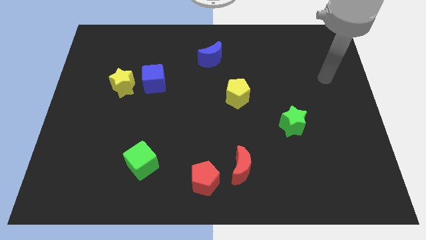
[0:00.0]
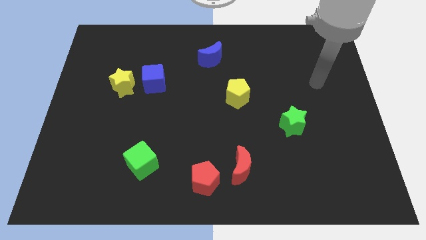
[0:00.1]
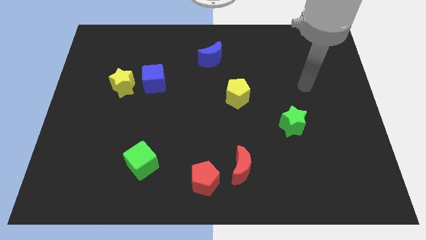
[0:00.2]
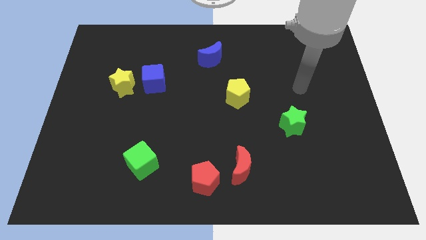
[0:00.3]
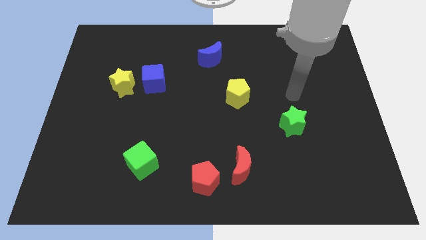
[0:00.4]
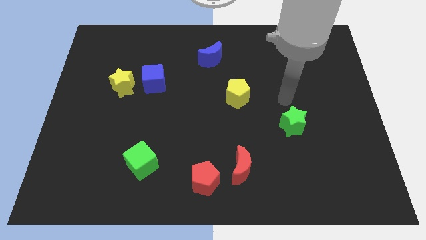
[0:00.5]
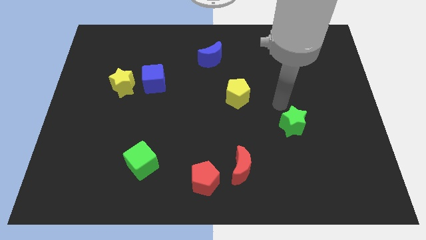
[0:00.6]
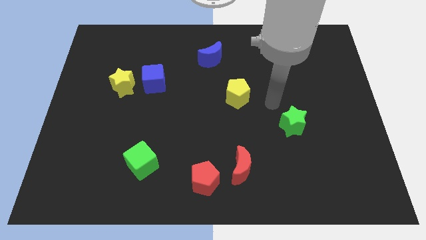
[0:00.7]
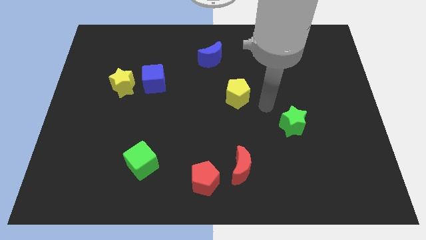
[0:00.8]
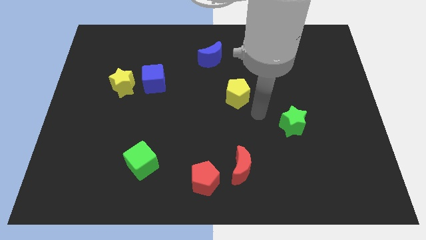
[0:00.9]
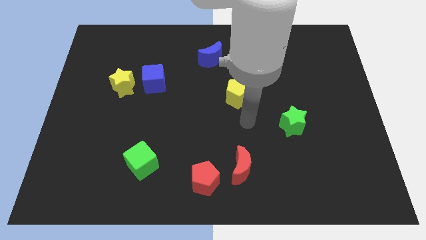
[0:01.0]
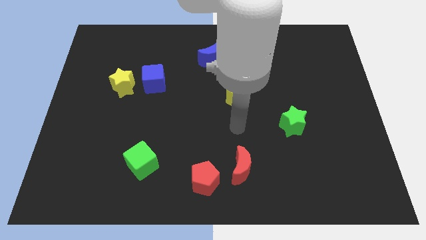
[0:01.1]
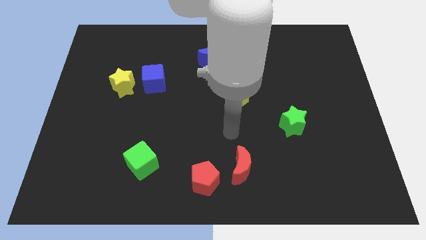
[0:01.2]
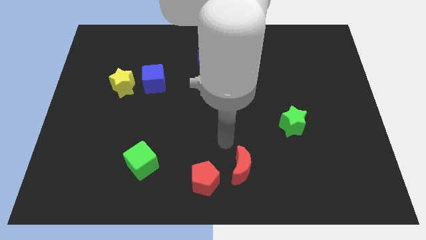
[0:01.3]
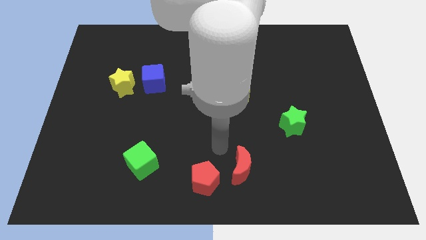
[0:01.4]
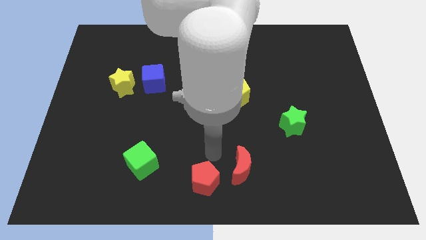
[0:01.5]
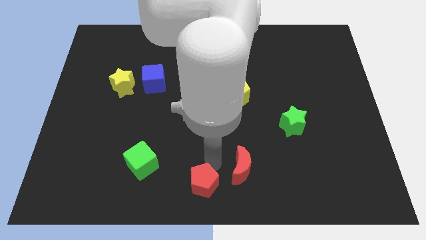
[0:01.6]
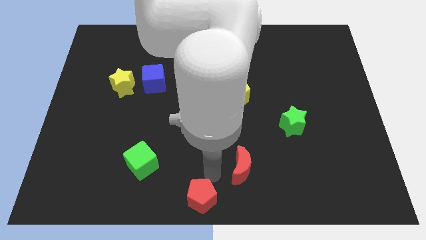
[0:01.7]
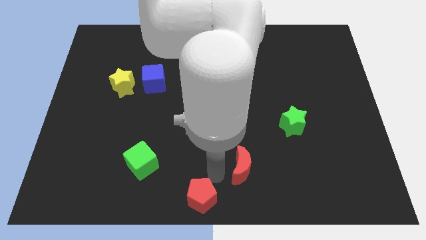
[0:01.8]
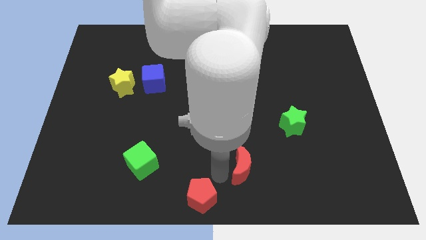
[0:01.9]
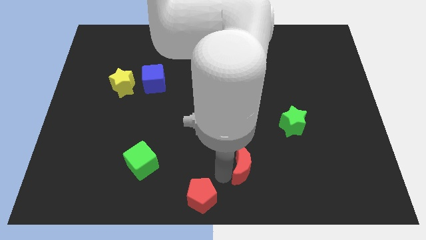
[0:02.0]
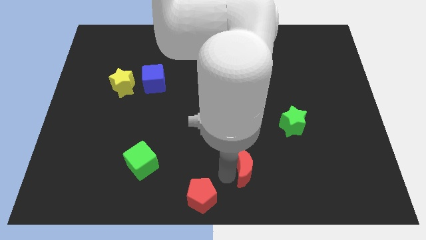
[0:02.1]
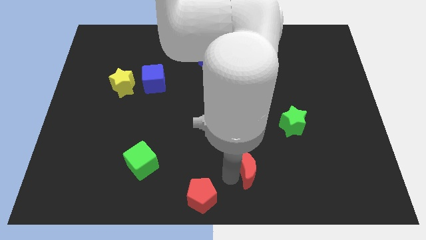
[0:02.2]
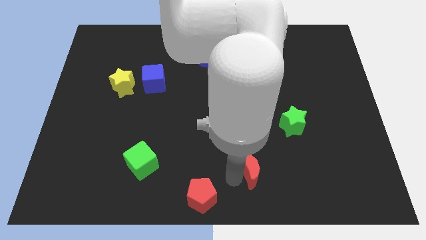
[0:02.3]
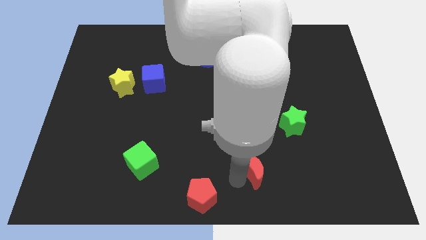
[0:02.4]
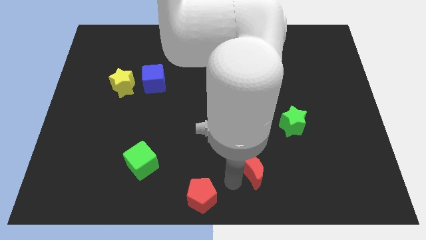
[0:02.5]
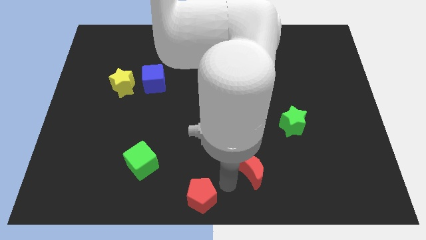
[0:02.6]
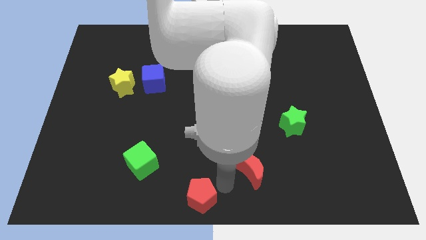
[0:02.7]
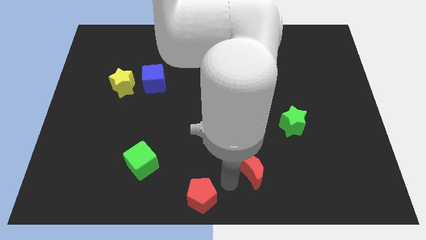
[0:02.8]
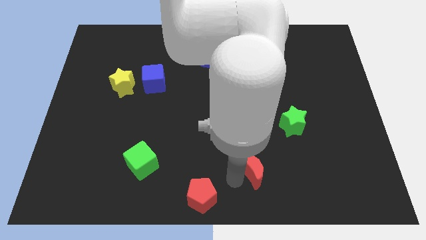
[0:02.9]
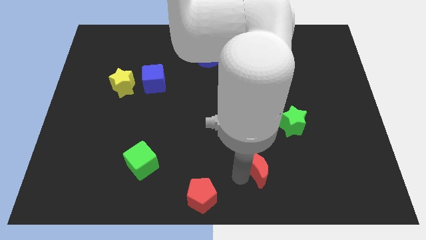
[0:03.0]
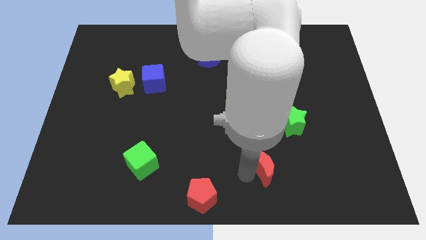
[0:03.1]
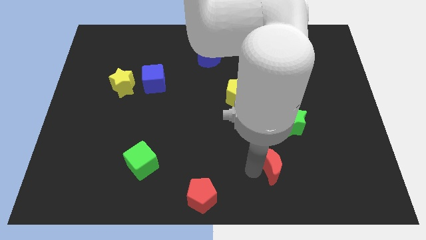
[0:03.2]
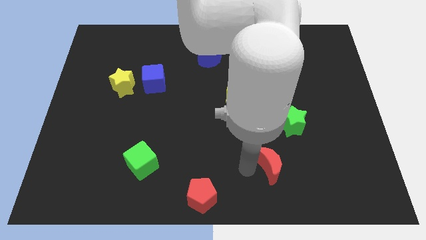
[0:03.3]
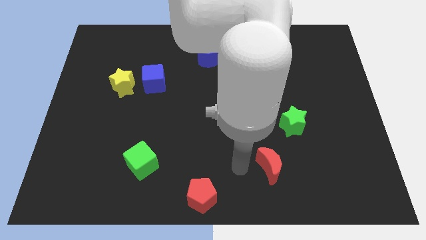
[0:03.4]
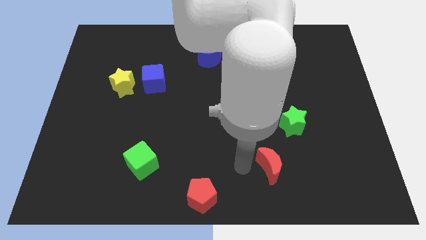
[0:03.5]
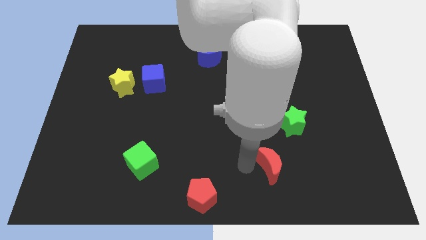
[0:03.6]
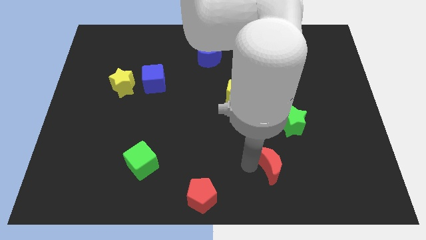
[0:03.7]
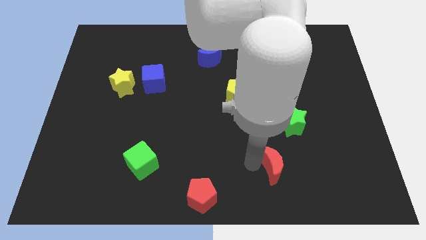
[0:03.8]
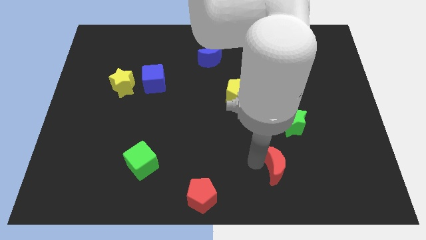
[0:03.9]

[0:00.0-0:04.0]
slightly move the red moon right

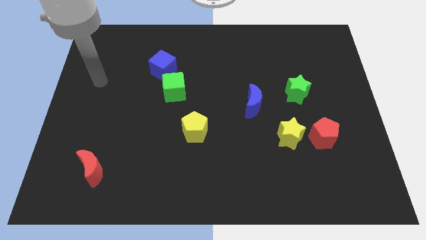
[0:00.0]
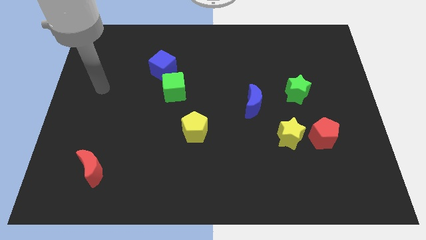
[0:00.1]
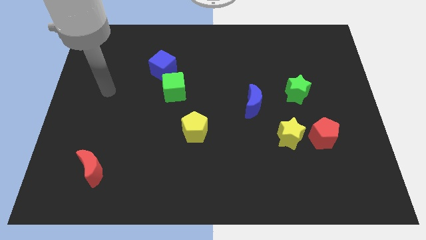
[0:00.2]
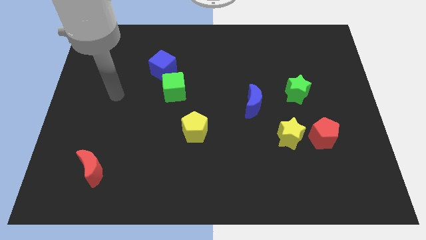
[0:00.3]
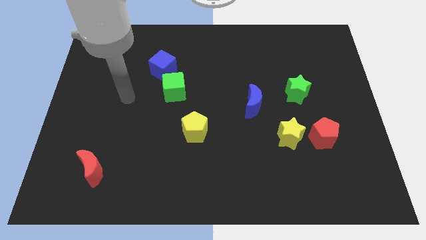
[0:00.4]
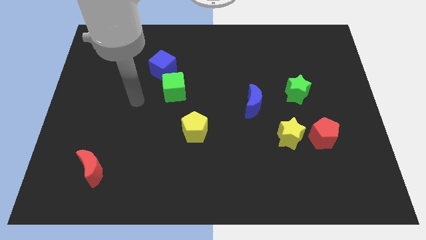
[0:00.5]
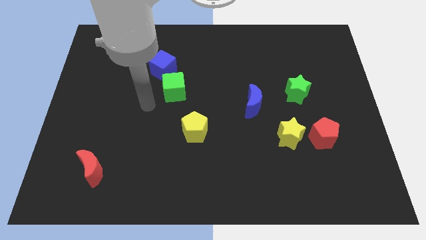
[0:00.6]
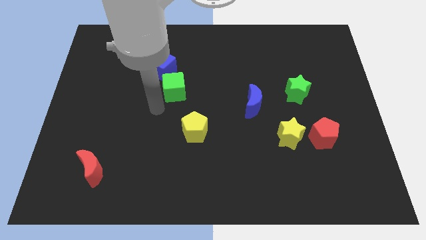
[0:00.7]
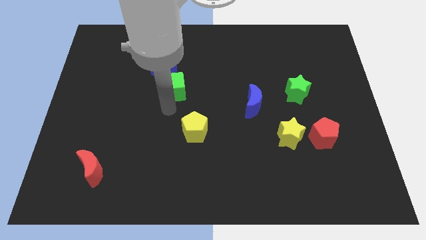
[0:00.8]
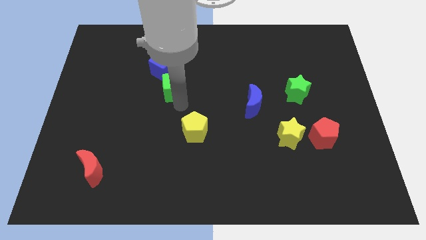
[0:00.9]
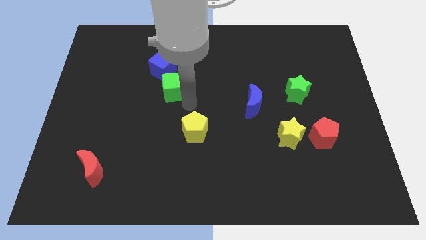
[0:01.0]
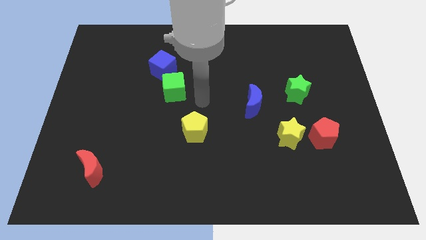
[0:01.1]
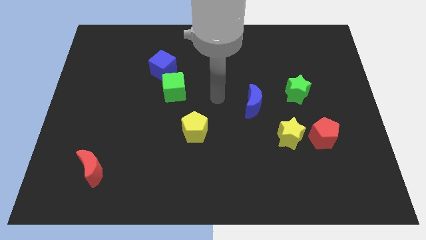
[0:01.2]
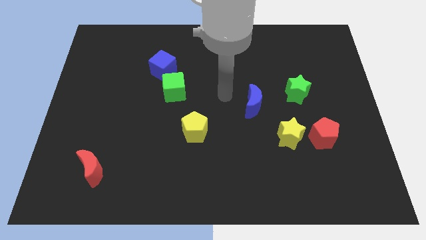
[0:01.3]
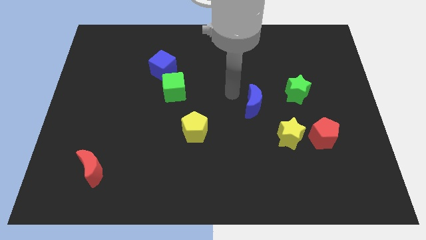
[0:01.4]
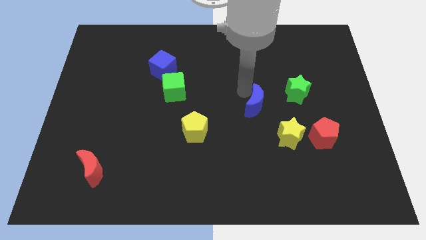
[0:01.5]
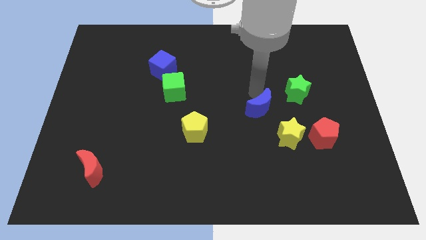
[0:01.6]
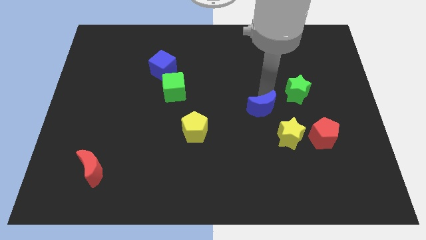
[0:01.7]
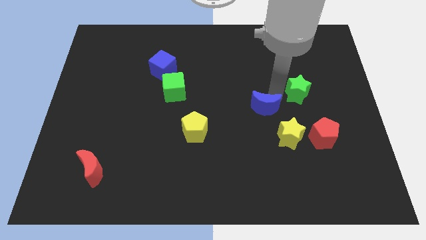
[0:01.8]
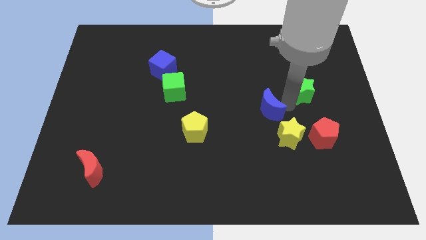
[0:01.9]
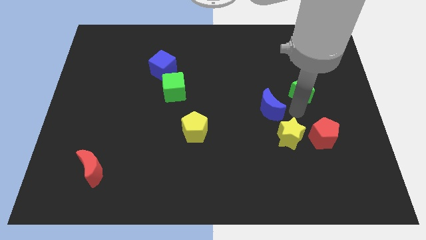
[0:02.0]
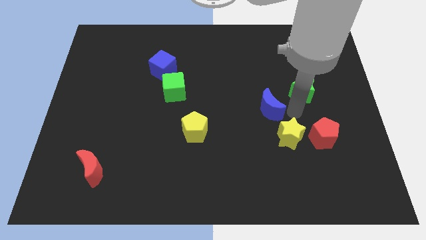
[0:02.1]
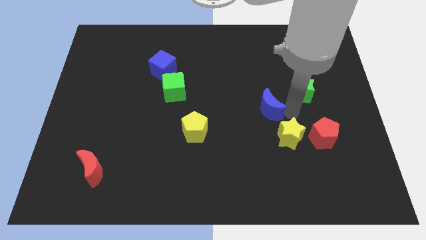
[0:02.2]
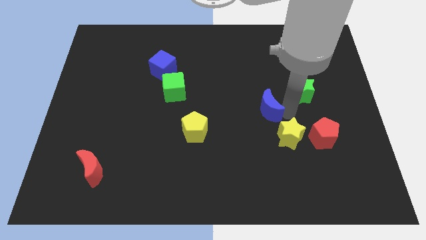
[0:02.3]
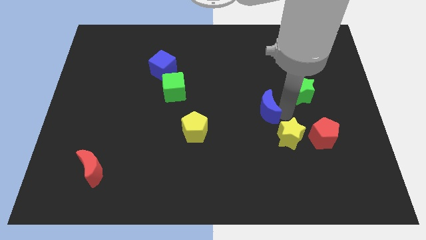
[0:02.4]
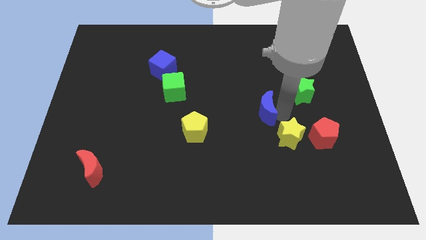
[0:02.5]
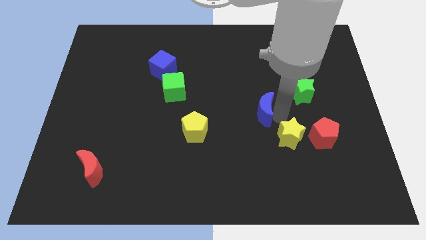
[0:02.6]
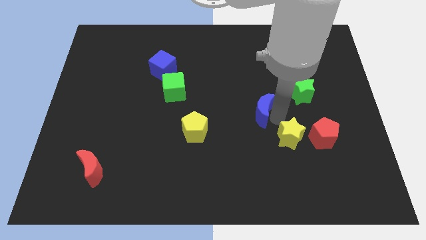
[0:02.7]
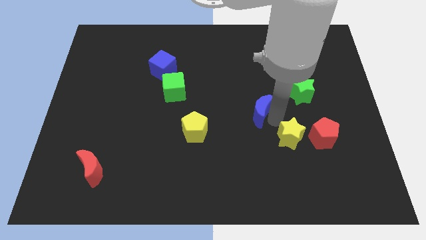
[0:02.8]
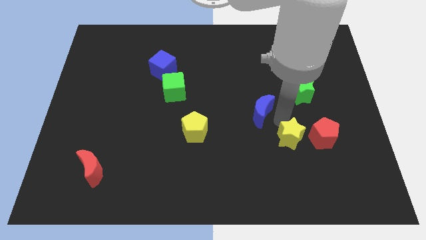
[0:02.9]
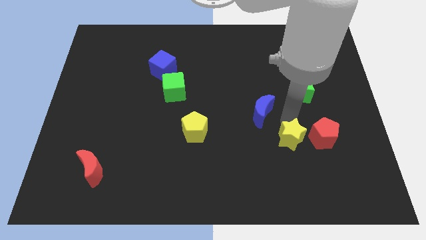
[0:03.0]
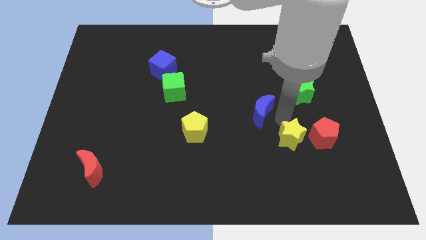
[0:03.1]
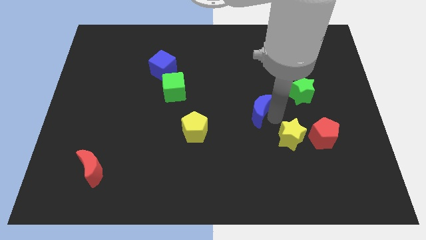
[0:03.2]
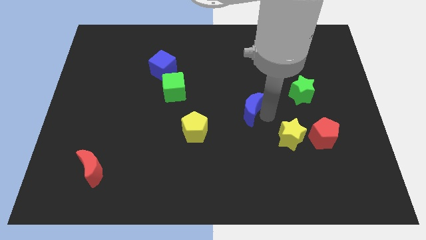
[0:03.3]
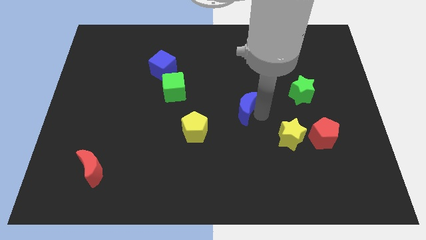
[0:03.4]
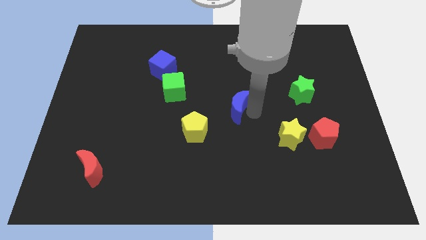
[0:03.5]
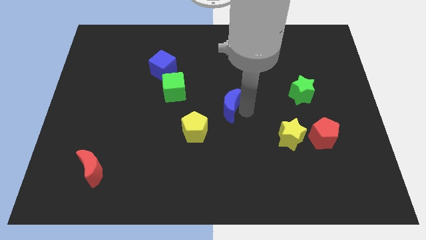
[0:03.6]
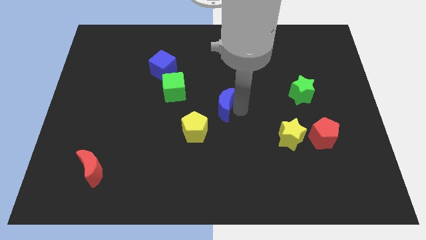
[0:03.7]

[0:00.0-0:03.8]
slide the blue moon left a little bit

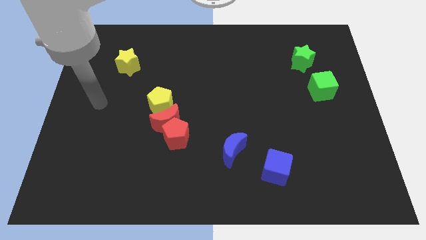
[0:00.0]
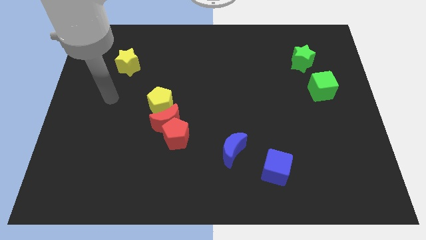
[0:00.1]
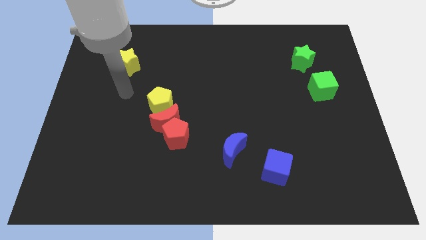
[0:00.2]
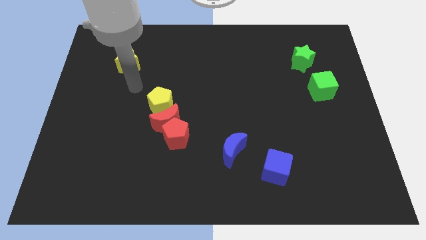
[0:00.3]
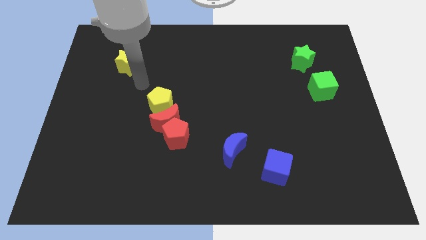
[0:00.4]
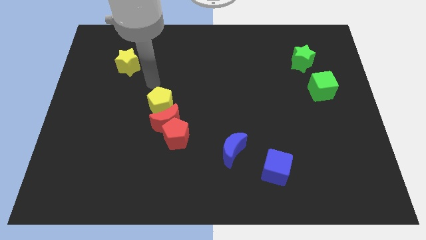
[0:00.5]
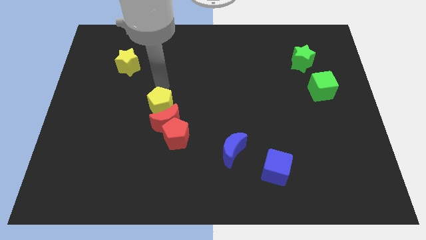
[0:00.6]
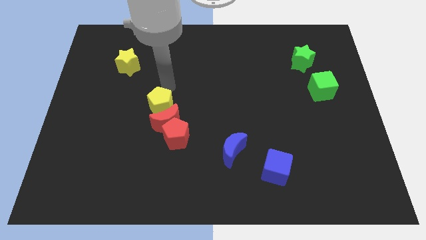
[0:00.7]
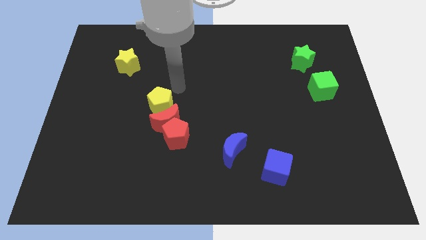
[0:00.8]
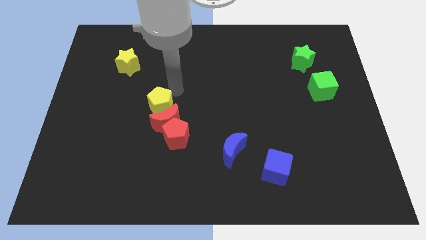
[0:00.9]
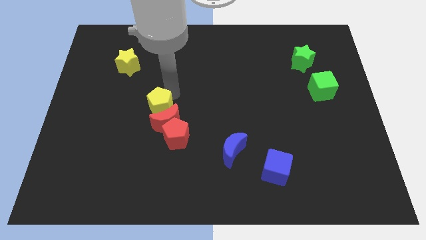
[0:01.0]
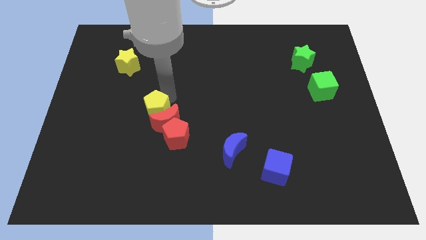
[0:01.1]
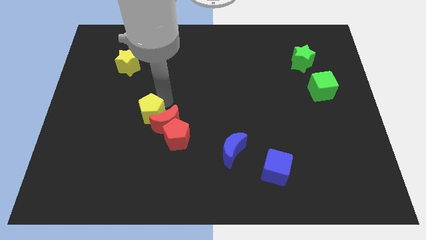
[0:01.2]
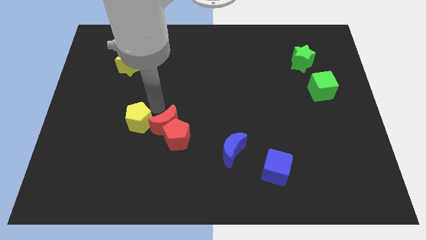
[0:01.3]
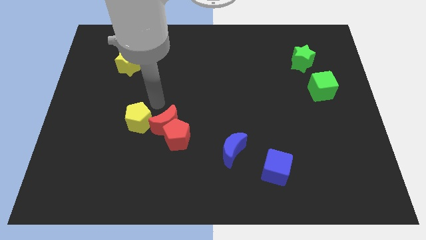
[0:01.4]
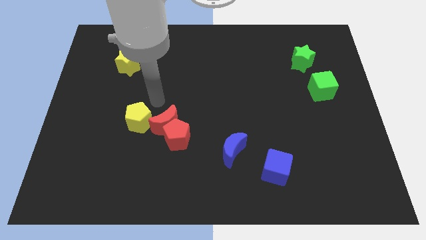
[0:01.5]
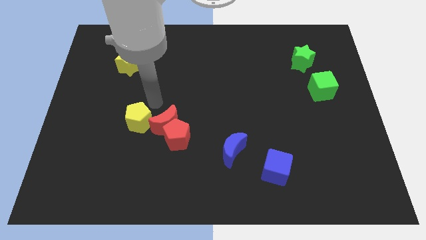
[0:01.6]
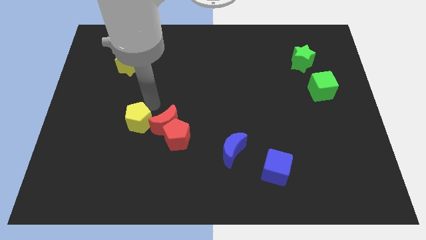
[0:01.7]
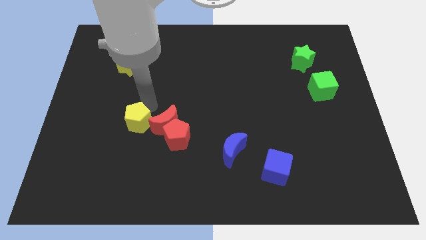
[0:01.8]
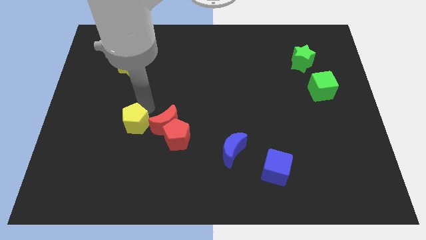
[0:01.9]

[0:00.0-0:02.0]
move the yellow pentagon slightly diagonally down and to the left
